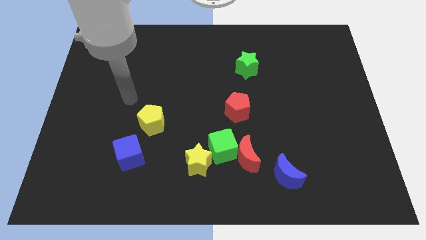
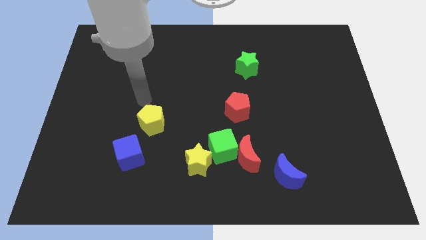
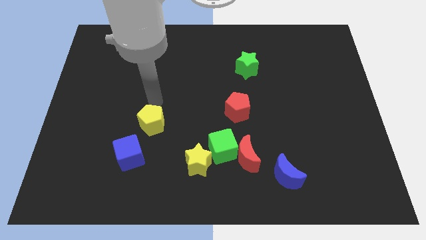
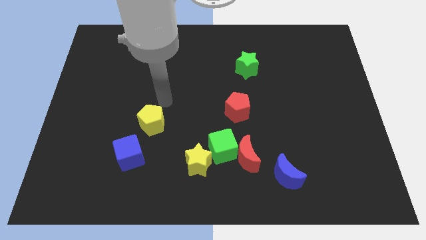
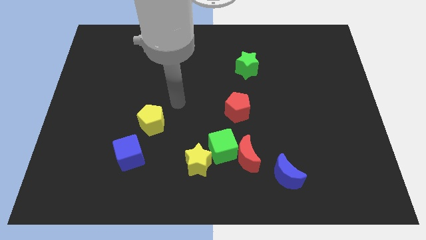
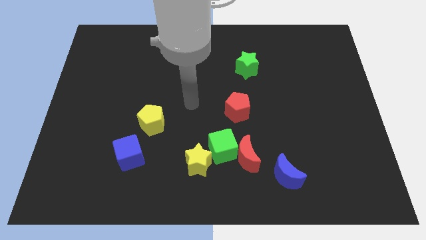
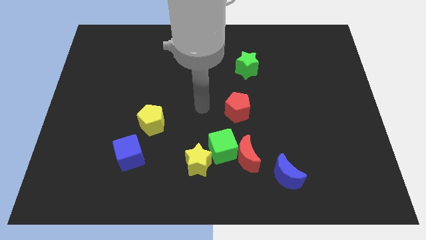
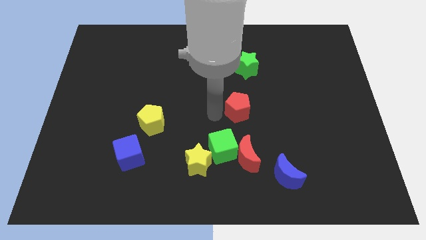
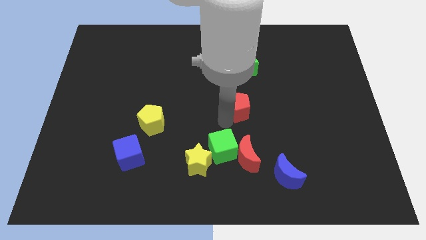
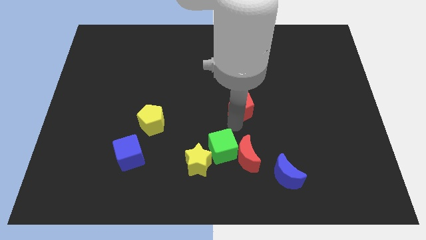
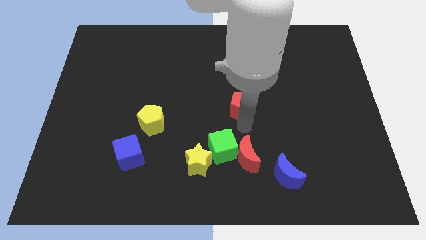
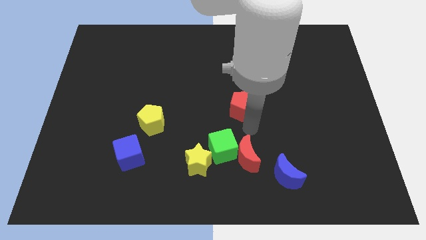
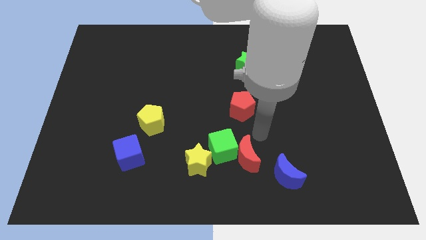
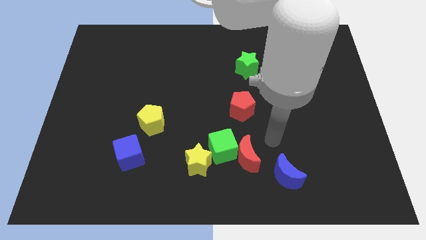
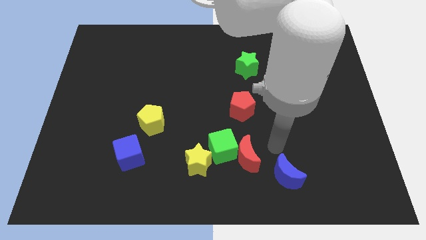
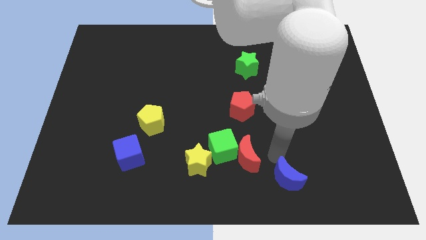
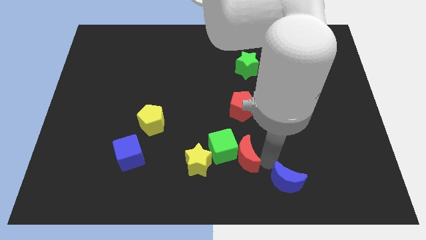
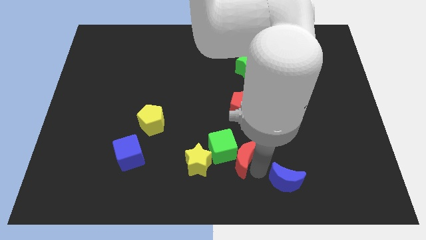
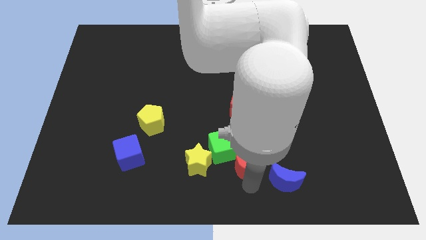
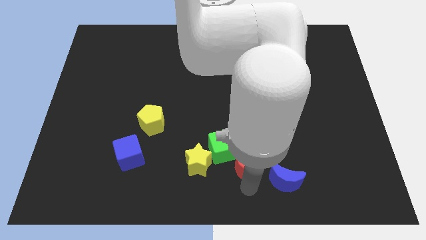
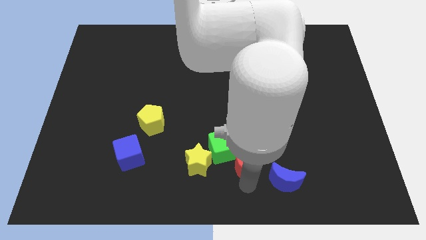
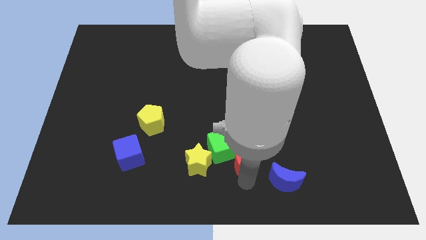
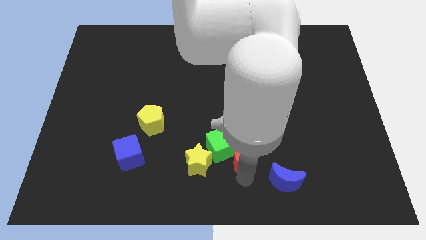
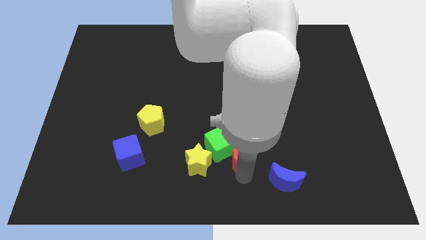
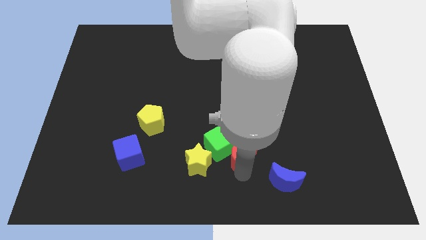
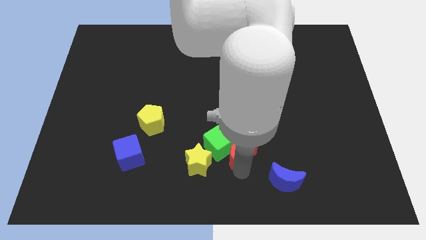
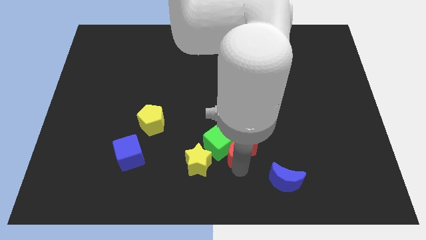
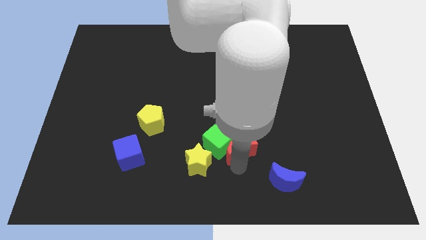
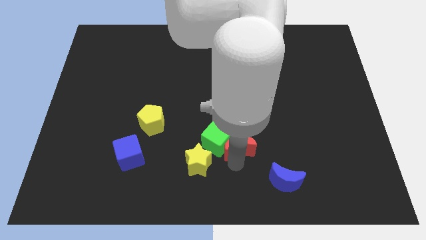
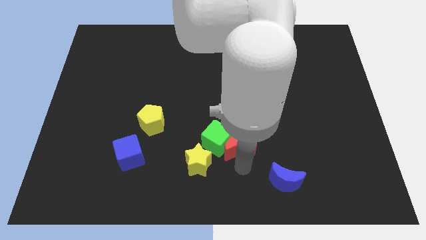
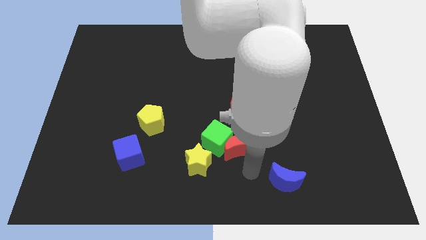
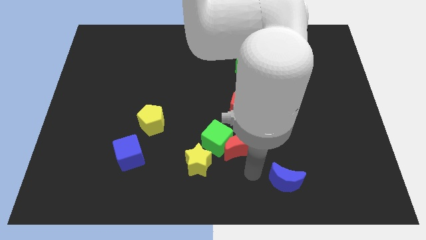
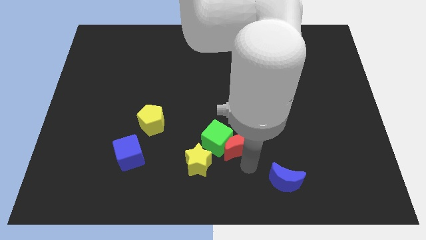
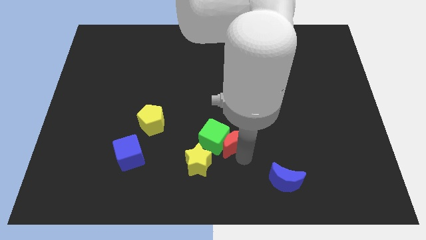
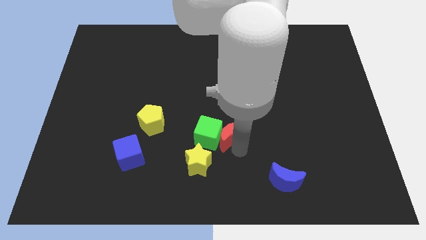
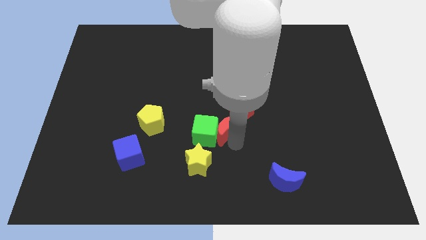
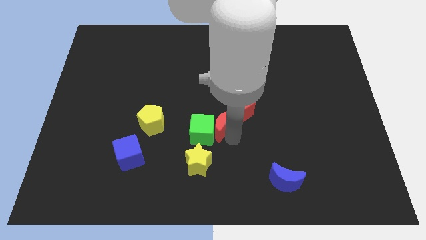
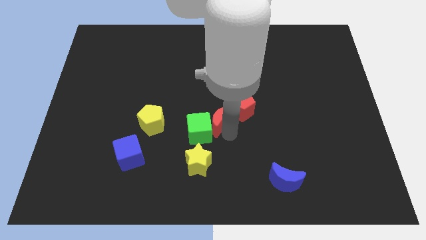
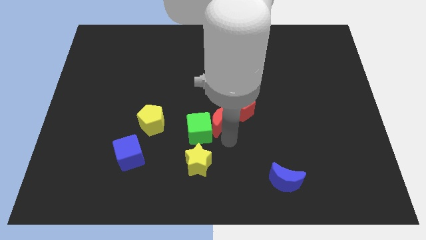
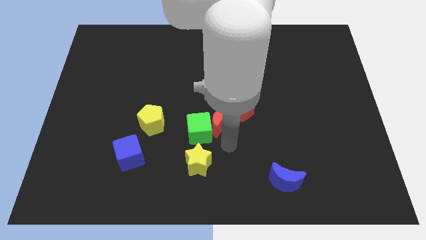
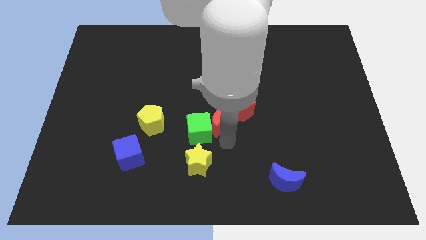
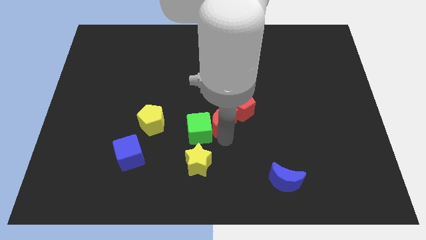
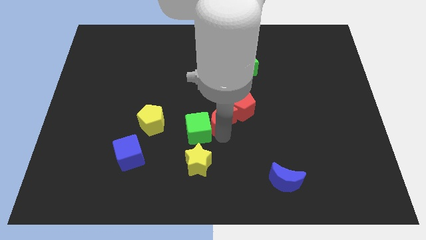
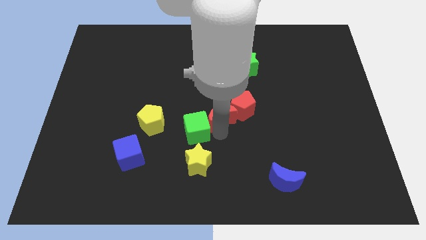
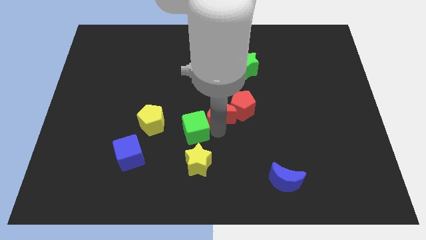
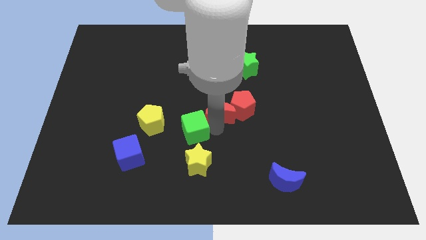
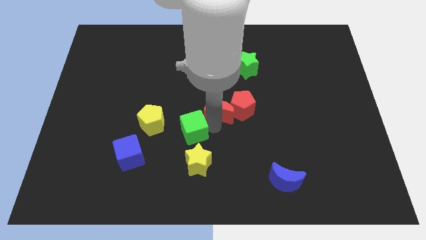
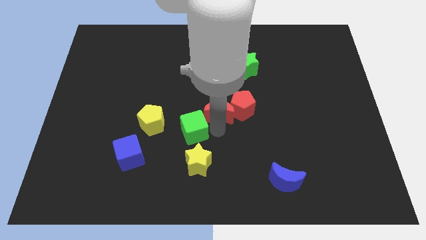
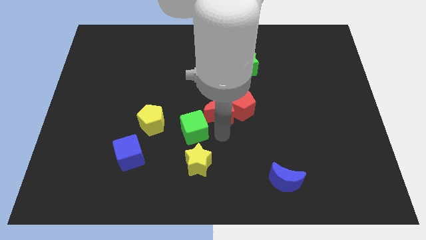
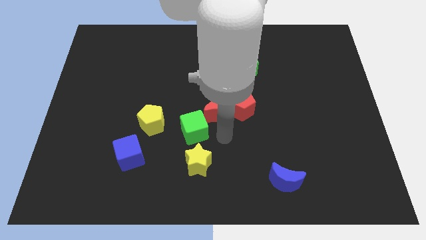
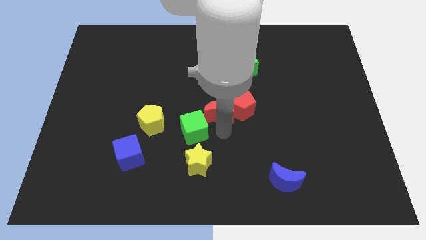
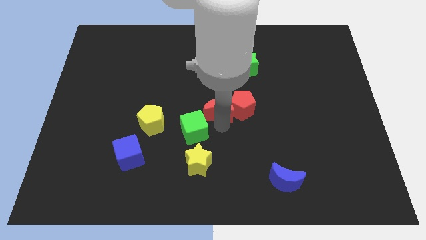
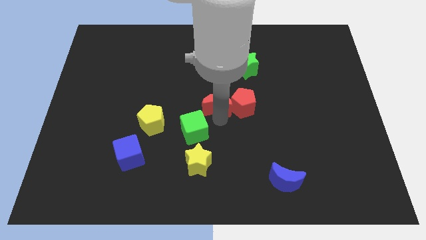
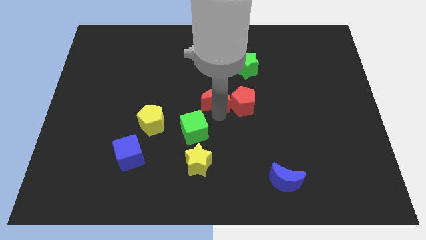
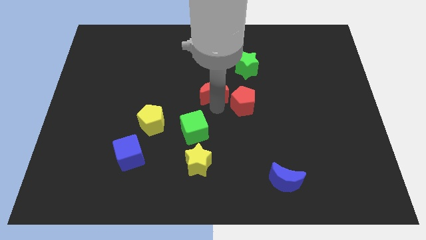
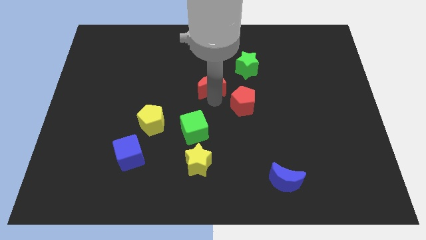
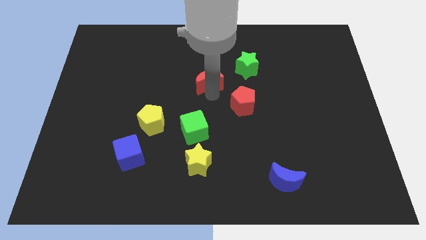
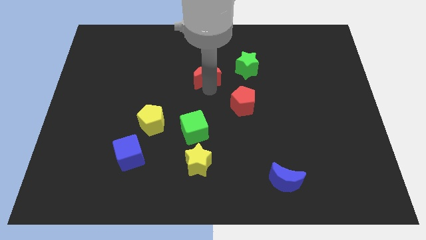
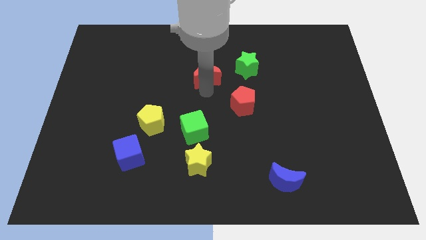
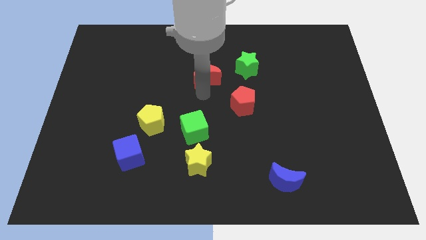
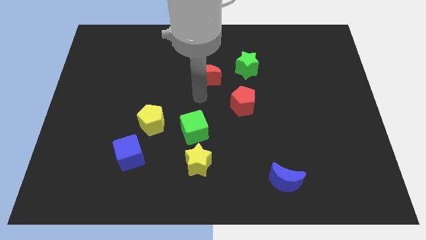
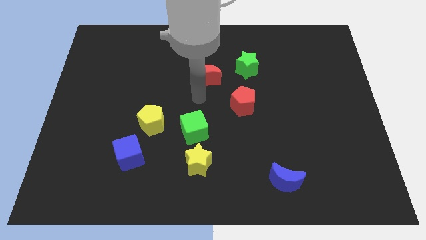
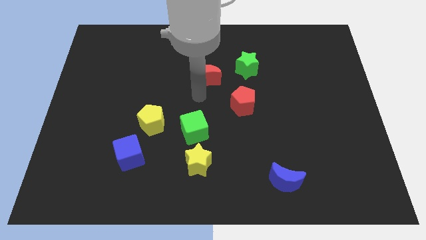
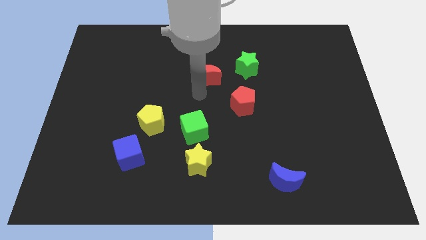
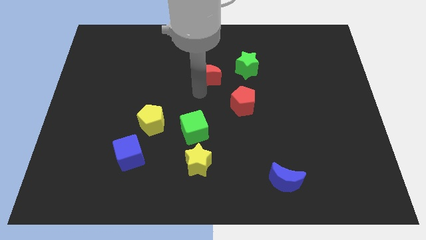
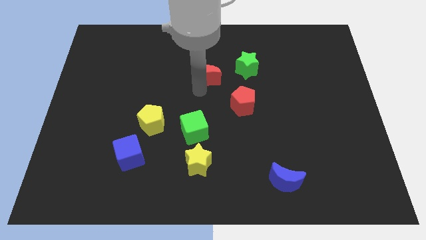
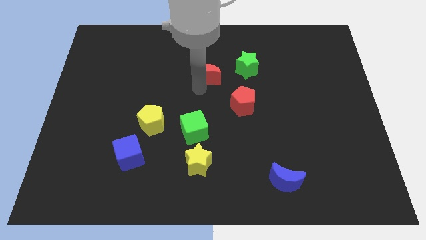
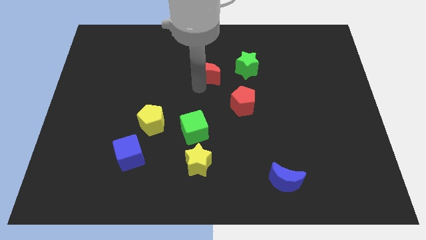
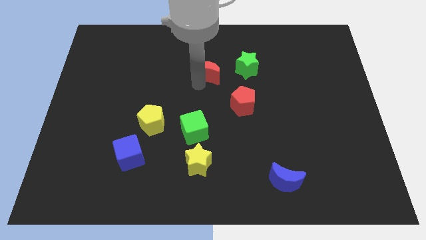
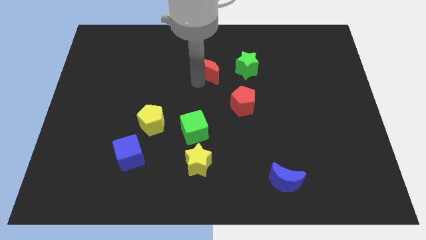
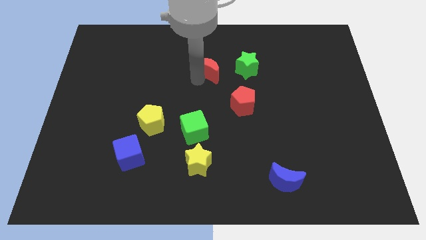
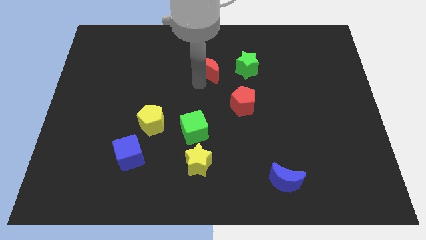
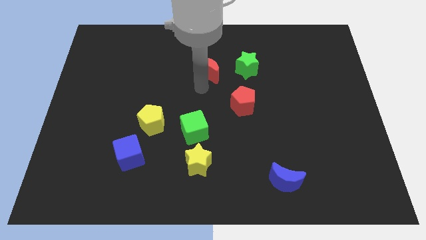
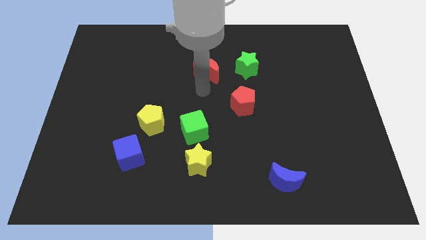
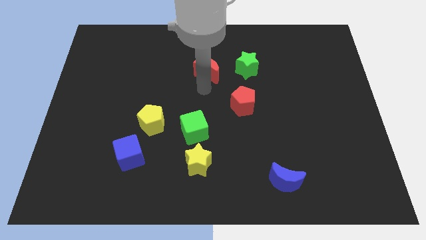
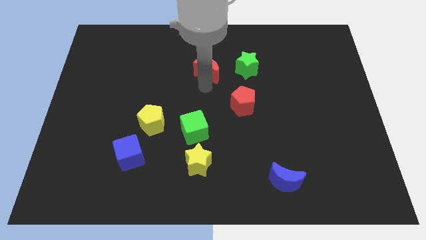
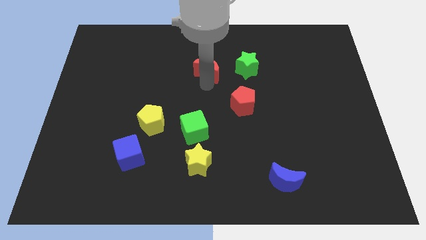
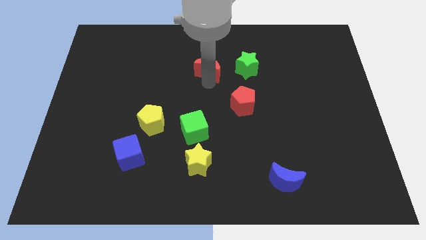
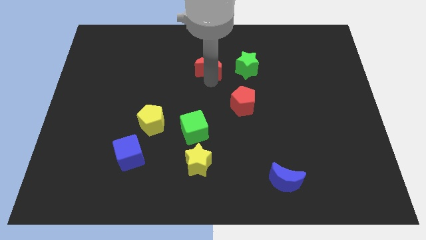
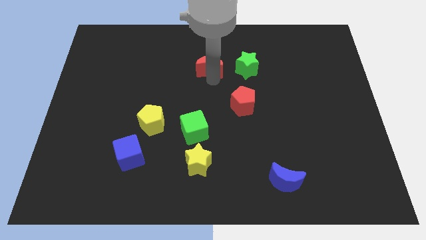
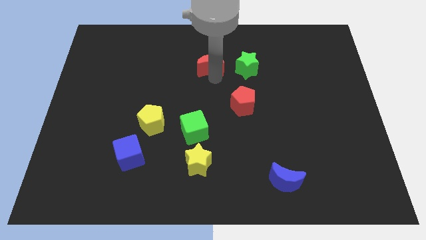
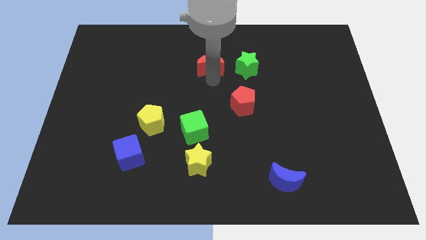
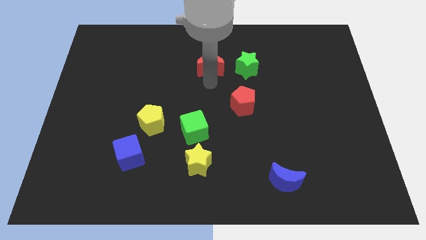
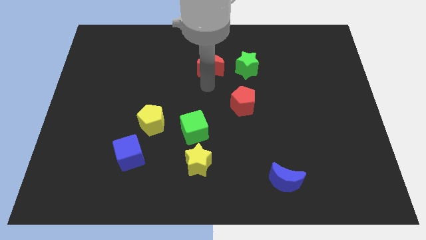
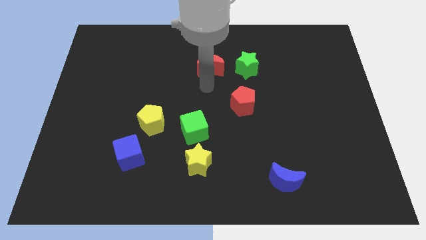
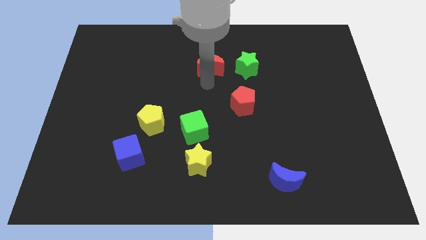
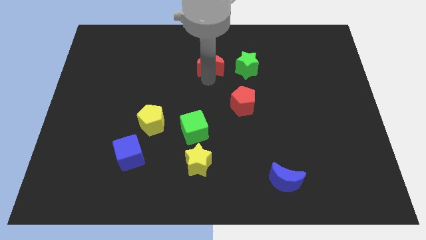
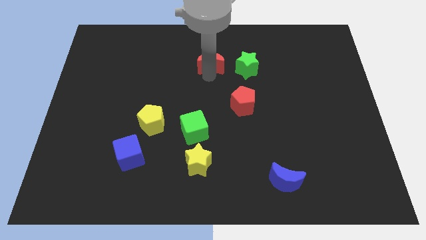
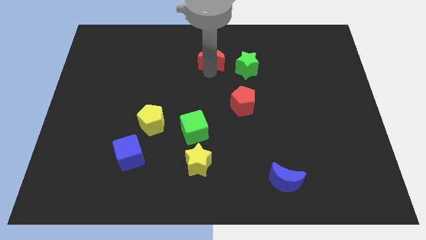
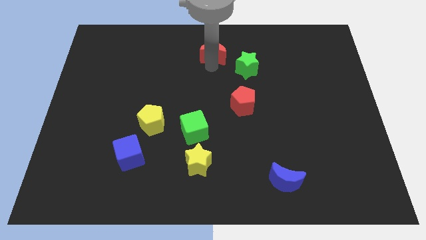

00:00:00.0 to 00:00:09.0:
put the red moon to the top
